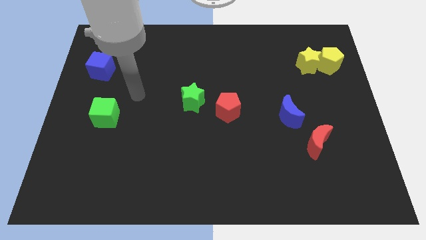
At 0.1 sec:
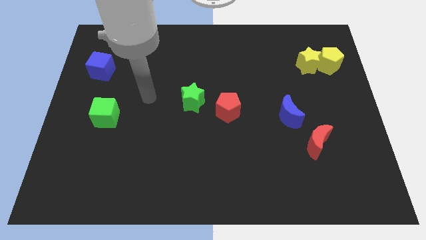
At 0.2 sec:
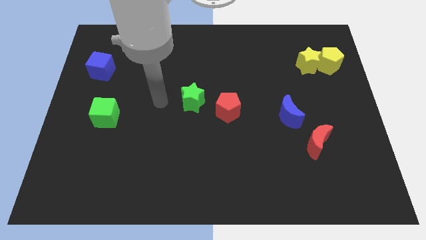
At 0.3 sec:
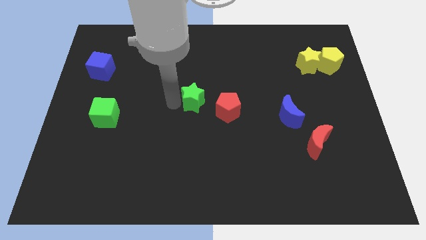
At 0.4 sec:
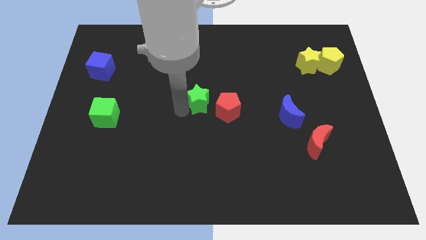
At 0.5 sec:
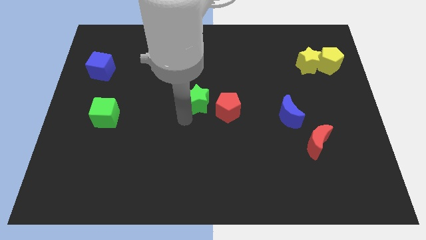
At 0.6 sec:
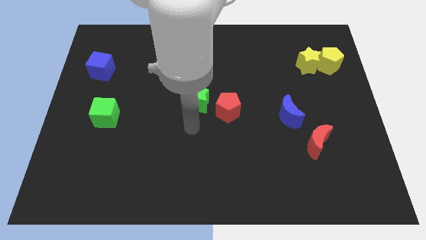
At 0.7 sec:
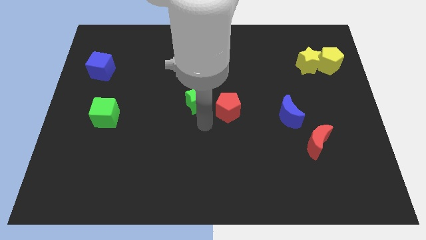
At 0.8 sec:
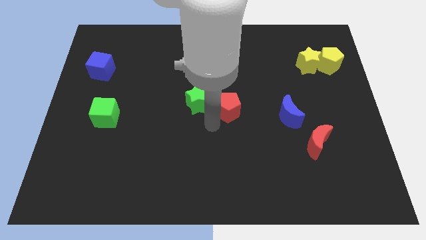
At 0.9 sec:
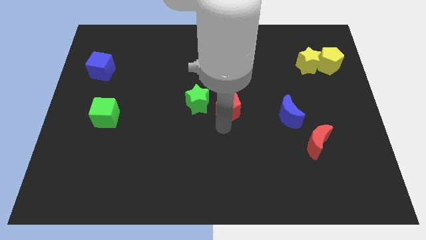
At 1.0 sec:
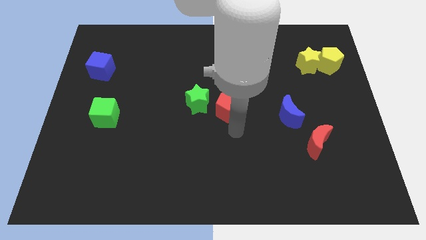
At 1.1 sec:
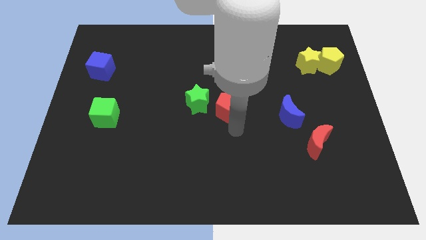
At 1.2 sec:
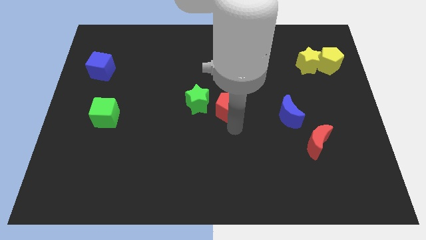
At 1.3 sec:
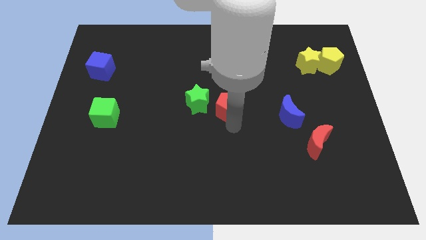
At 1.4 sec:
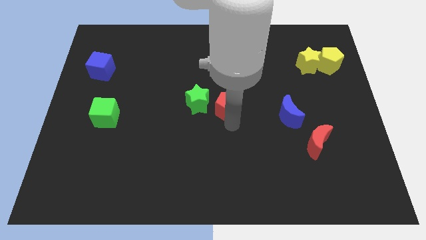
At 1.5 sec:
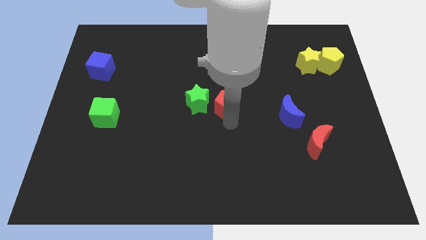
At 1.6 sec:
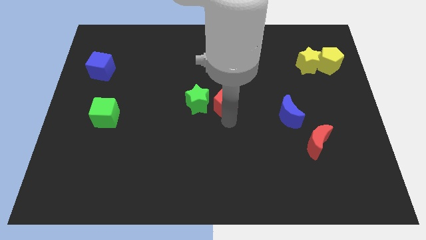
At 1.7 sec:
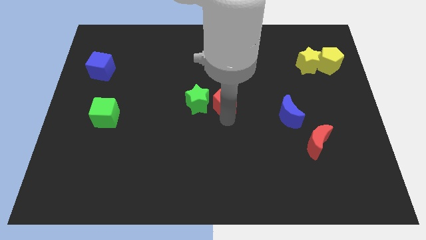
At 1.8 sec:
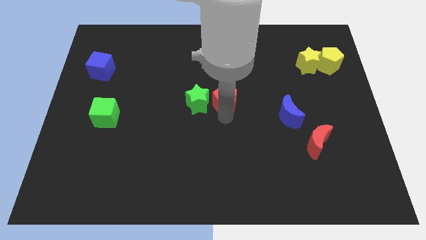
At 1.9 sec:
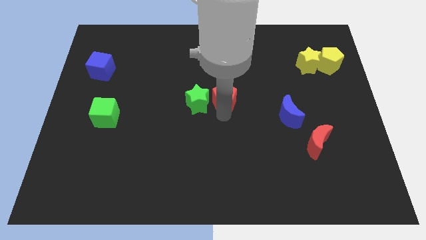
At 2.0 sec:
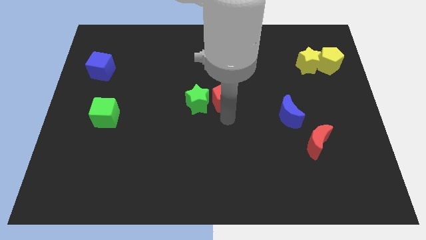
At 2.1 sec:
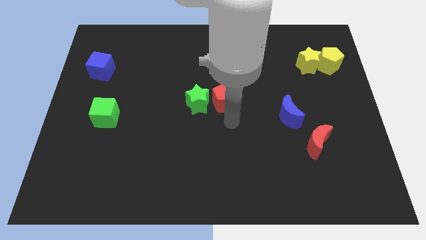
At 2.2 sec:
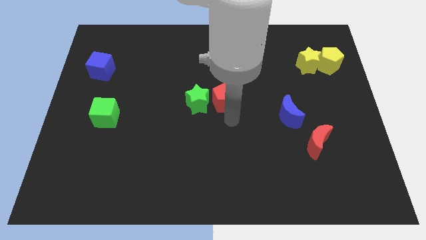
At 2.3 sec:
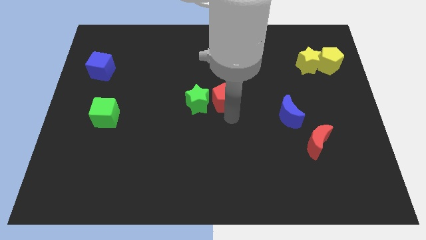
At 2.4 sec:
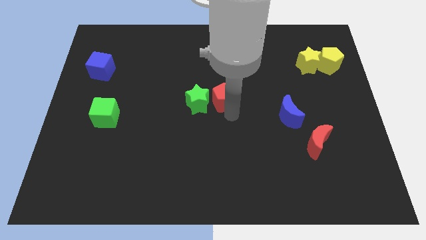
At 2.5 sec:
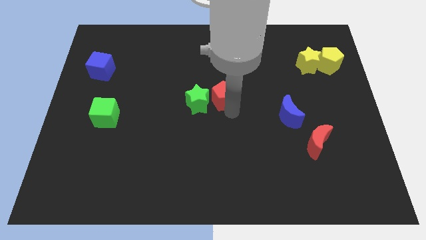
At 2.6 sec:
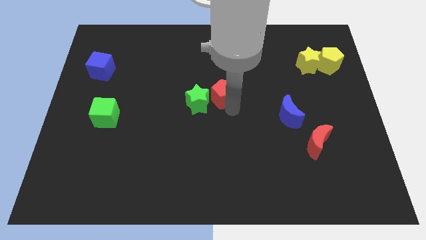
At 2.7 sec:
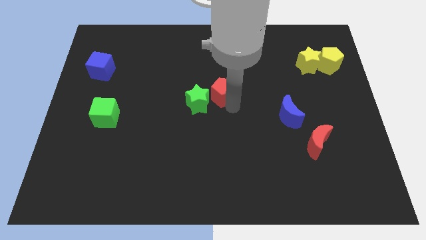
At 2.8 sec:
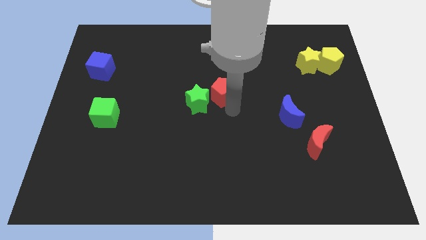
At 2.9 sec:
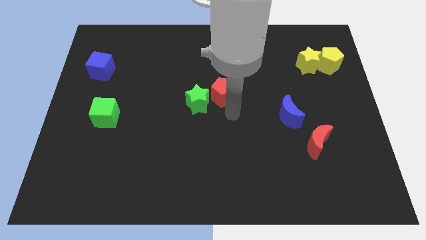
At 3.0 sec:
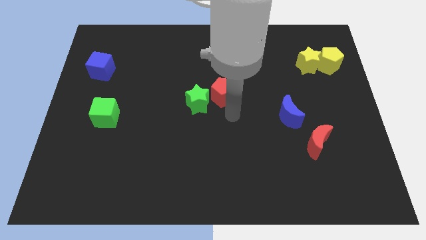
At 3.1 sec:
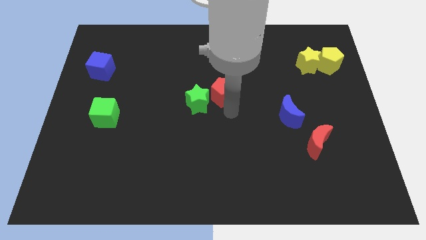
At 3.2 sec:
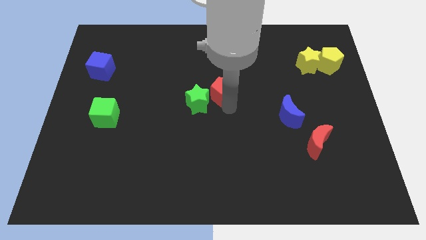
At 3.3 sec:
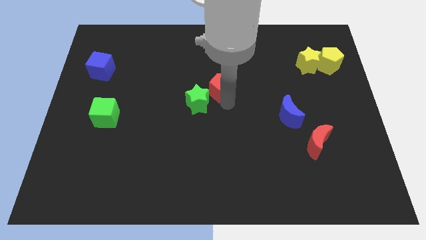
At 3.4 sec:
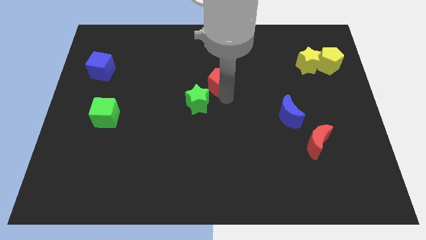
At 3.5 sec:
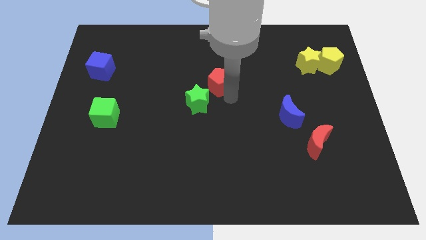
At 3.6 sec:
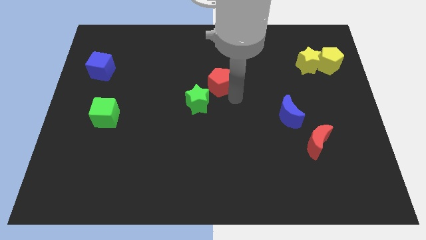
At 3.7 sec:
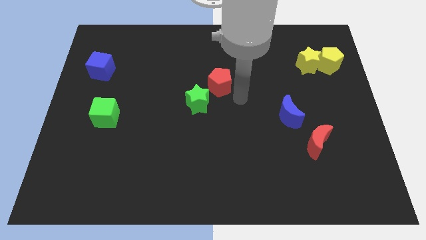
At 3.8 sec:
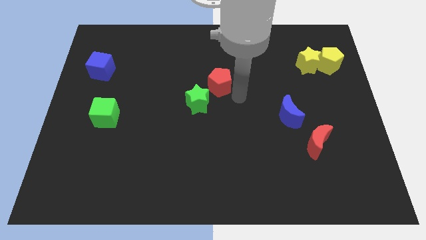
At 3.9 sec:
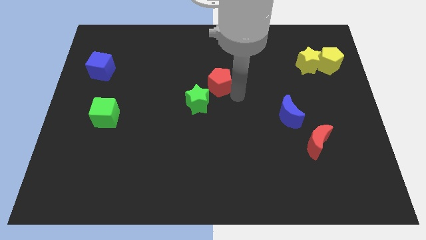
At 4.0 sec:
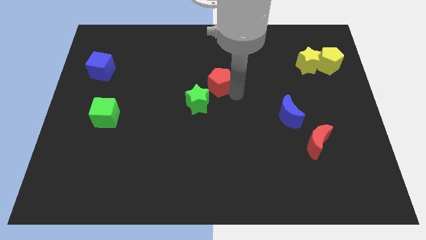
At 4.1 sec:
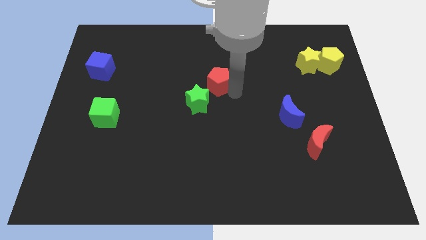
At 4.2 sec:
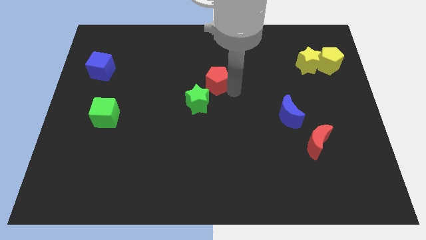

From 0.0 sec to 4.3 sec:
push the red pentagon slightly diagonally upwards and to the left

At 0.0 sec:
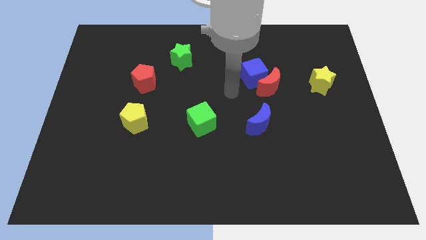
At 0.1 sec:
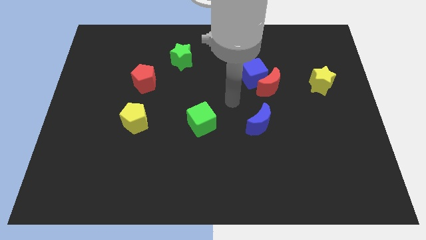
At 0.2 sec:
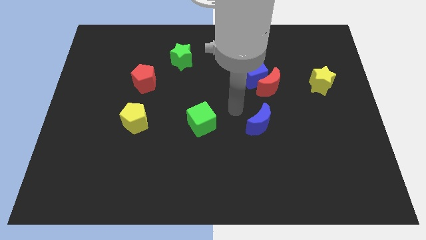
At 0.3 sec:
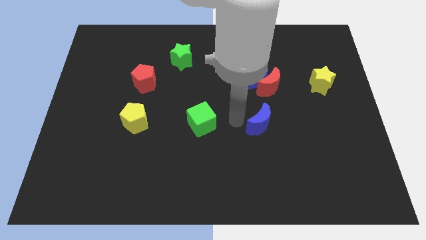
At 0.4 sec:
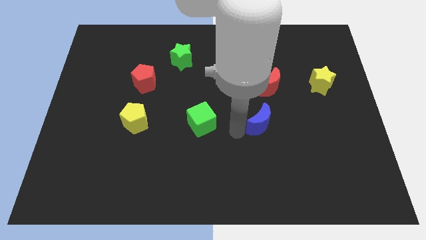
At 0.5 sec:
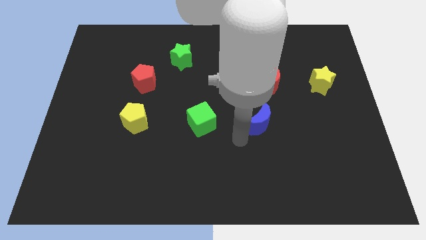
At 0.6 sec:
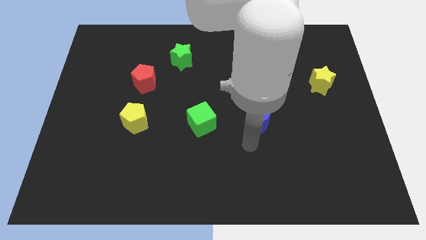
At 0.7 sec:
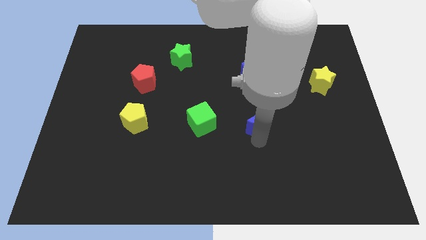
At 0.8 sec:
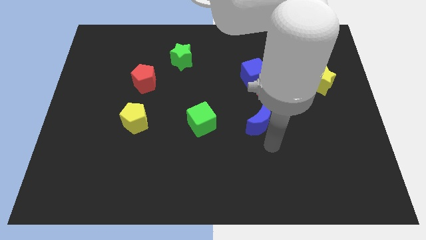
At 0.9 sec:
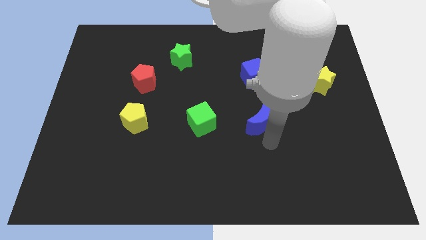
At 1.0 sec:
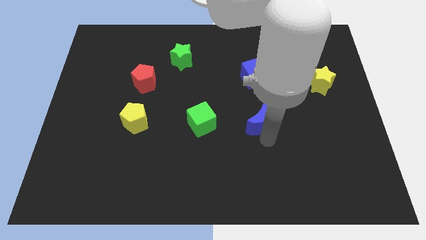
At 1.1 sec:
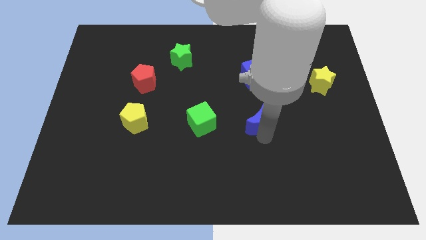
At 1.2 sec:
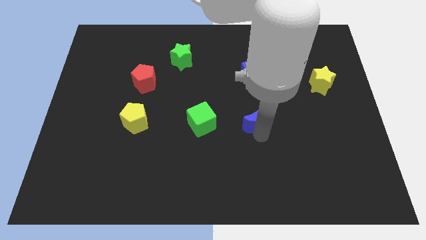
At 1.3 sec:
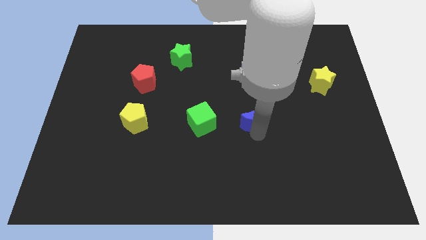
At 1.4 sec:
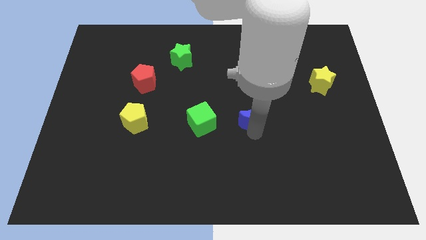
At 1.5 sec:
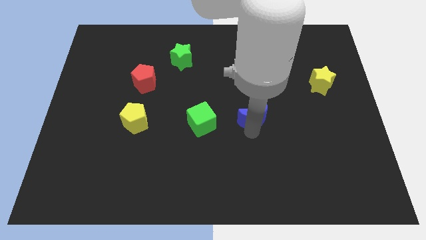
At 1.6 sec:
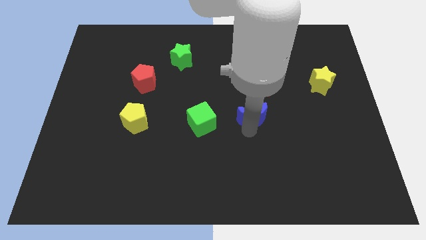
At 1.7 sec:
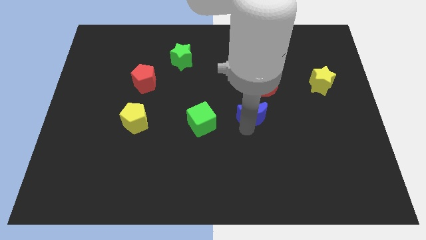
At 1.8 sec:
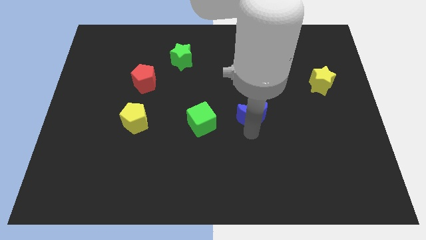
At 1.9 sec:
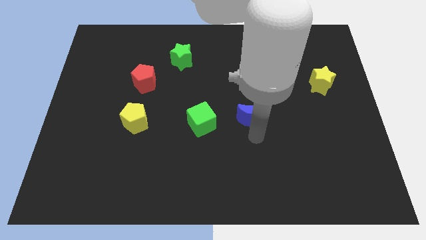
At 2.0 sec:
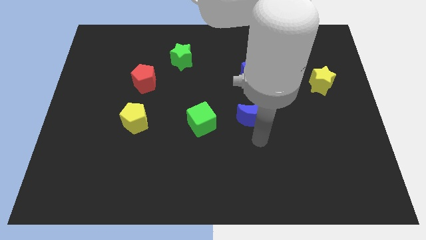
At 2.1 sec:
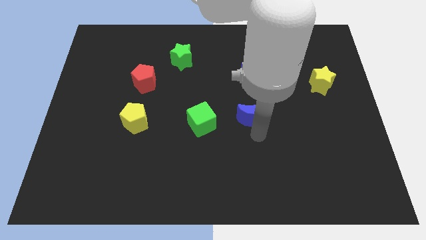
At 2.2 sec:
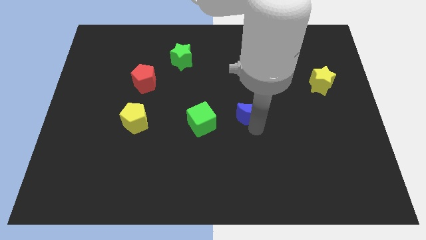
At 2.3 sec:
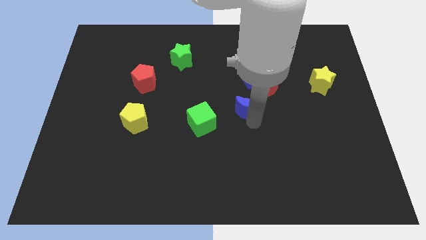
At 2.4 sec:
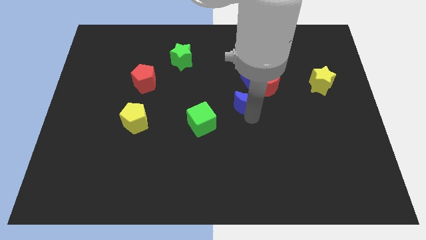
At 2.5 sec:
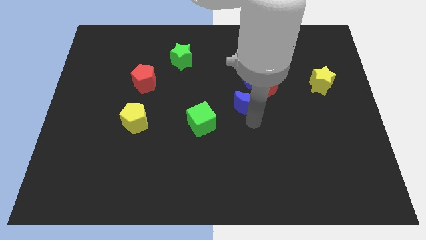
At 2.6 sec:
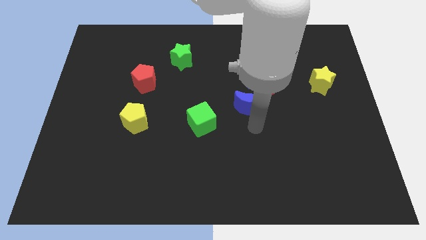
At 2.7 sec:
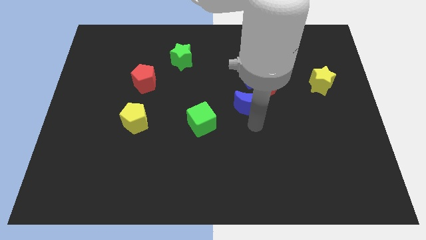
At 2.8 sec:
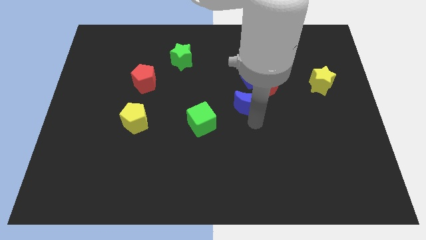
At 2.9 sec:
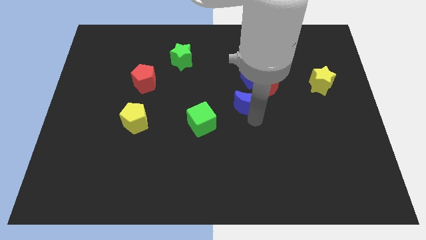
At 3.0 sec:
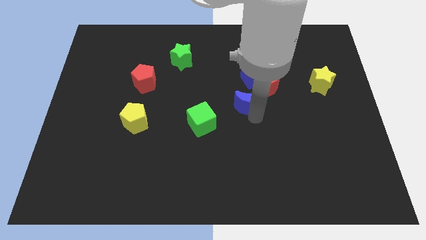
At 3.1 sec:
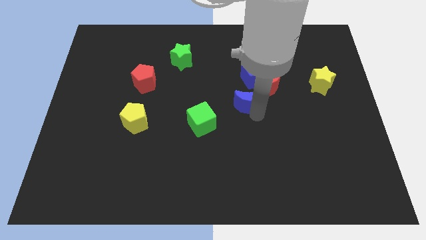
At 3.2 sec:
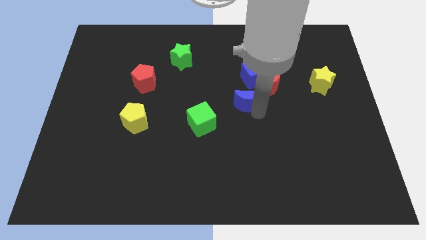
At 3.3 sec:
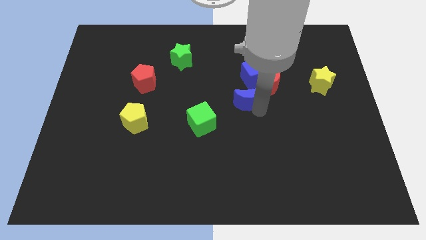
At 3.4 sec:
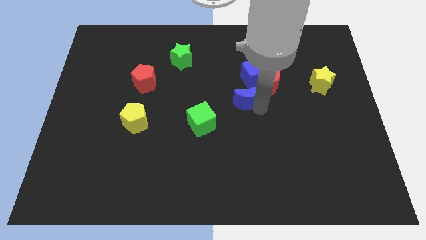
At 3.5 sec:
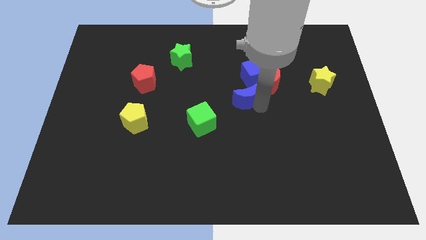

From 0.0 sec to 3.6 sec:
push the blue moon a little up

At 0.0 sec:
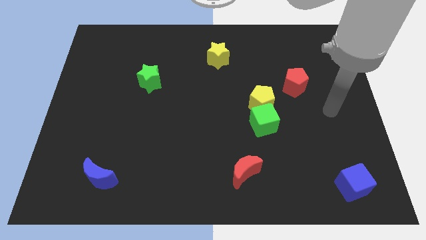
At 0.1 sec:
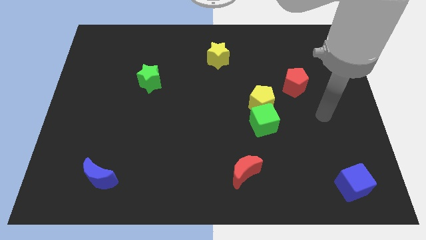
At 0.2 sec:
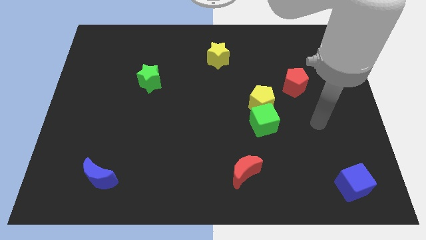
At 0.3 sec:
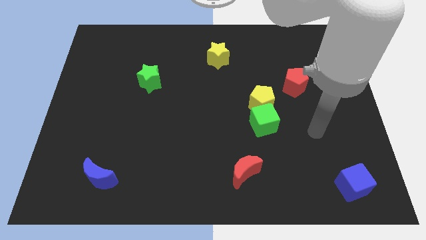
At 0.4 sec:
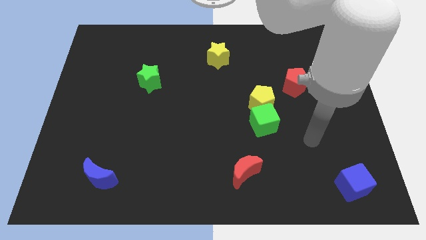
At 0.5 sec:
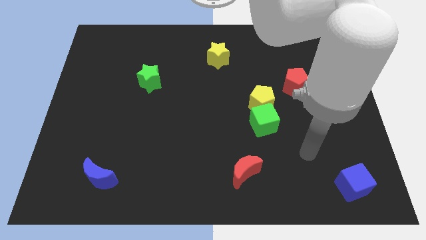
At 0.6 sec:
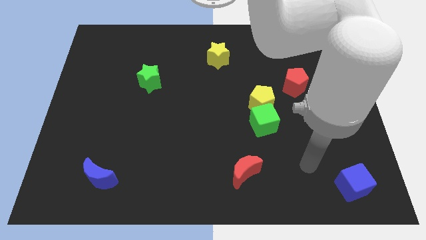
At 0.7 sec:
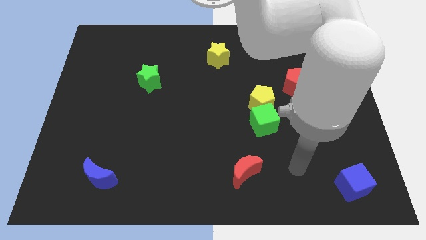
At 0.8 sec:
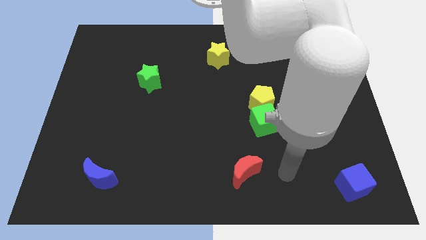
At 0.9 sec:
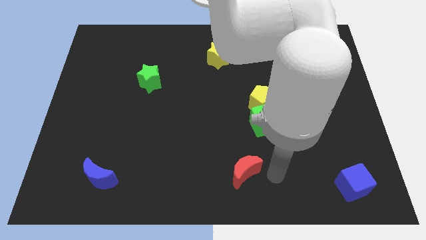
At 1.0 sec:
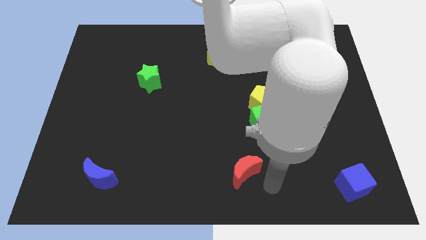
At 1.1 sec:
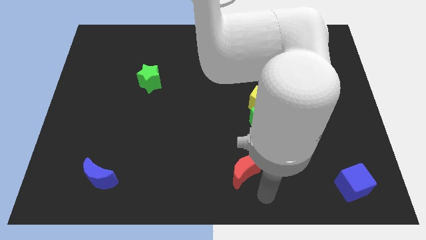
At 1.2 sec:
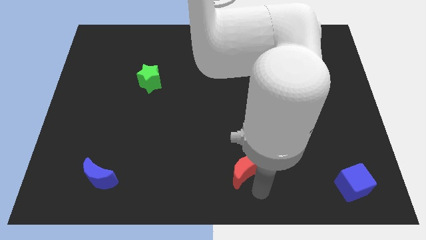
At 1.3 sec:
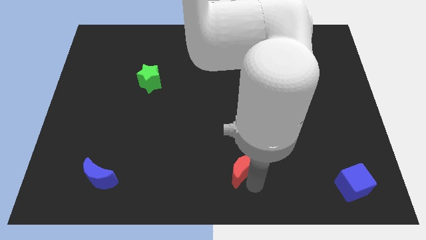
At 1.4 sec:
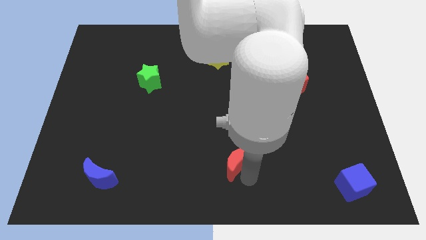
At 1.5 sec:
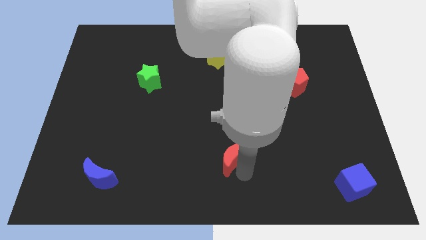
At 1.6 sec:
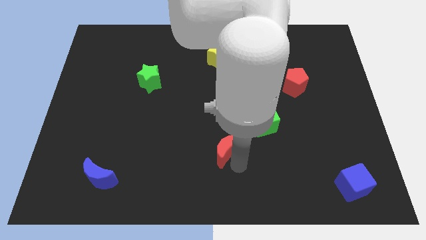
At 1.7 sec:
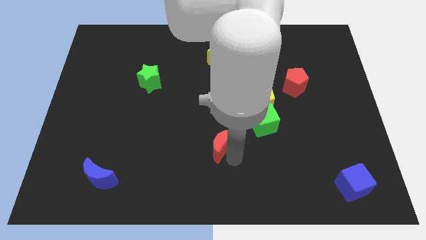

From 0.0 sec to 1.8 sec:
move the red moon upwards and to the left a little
